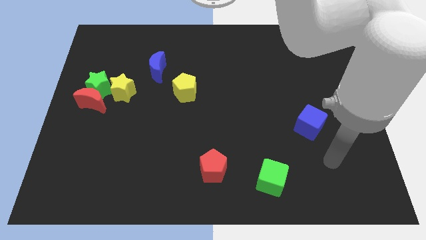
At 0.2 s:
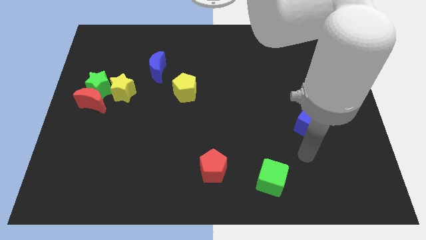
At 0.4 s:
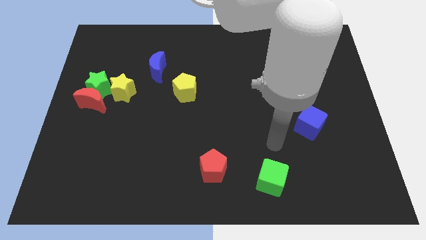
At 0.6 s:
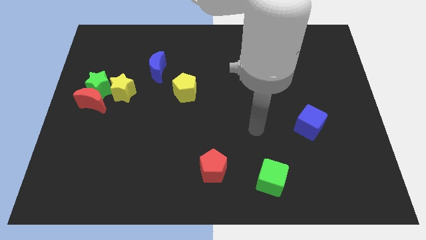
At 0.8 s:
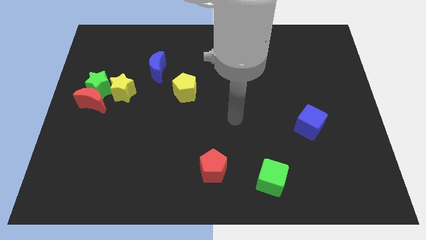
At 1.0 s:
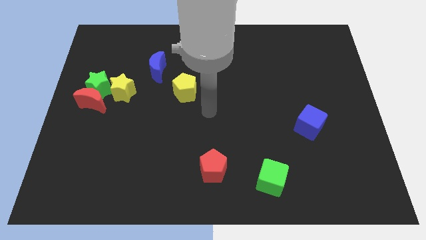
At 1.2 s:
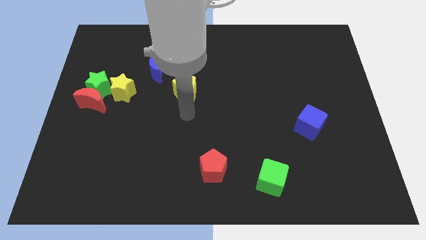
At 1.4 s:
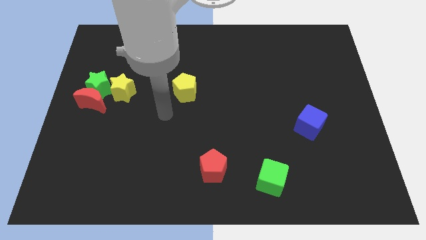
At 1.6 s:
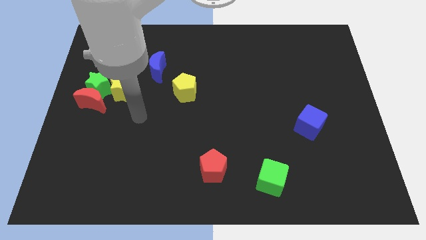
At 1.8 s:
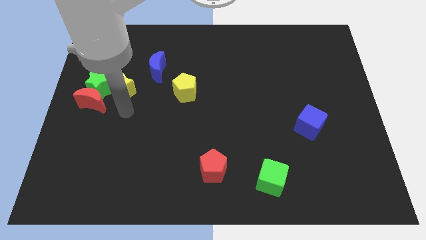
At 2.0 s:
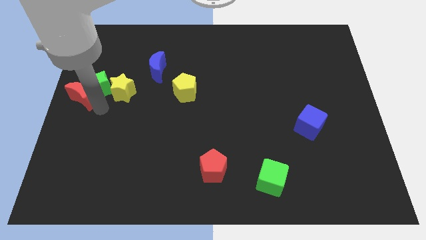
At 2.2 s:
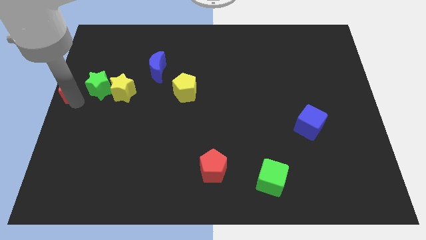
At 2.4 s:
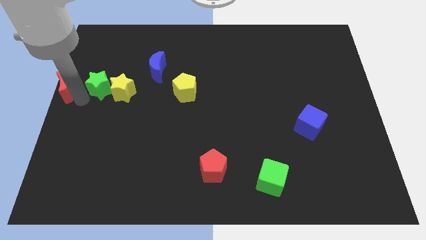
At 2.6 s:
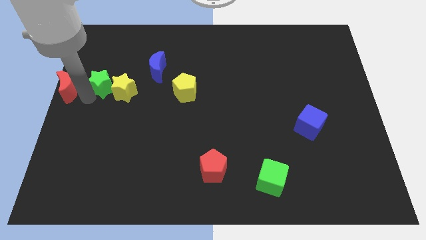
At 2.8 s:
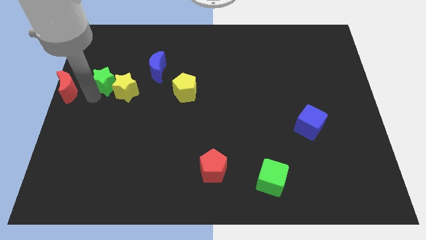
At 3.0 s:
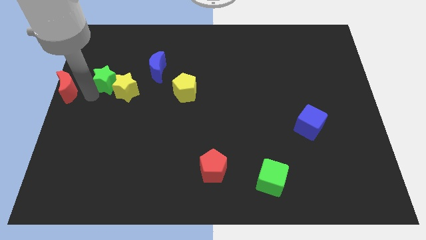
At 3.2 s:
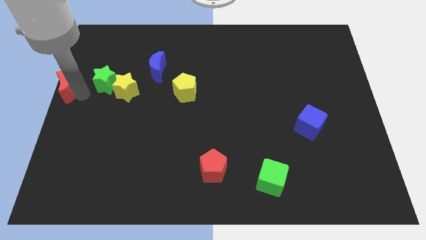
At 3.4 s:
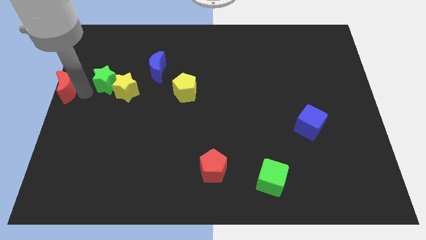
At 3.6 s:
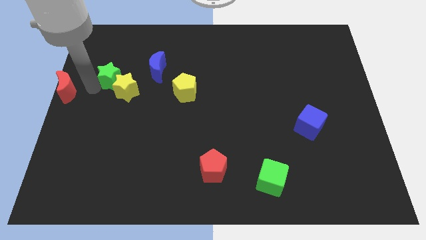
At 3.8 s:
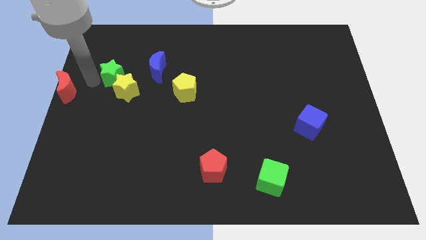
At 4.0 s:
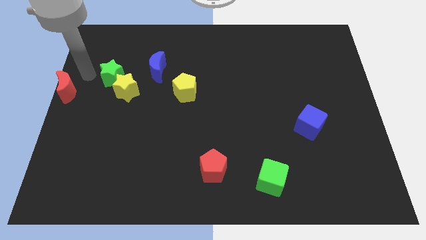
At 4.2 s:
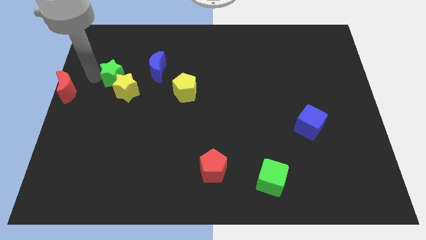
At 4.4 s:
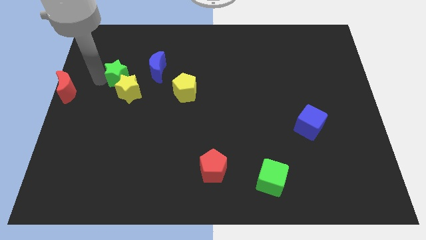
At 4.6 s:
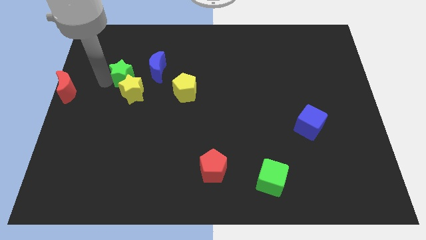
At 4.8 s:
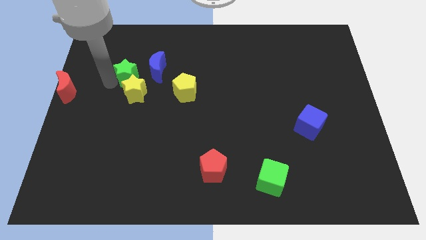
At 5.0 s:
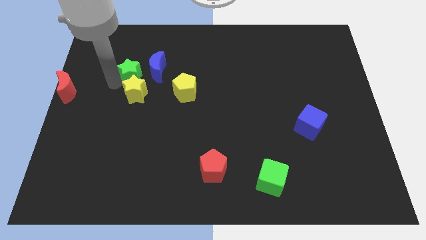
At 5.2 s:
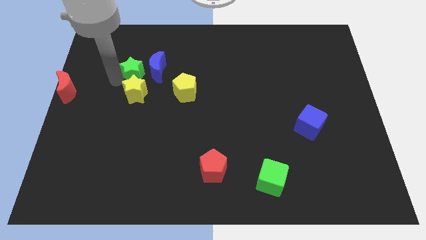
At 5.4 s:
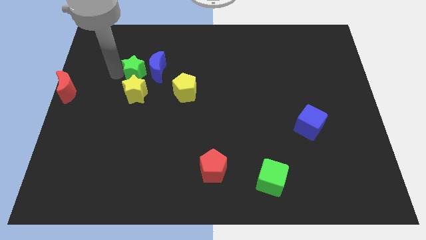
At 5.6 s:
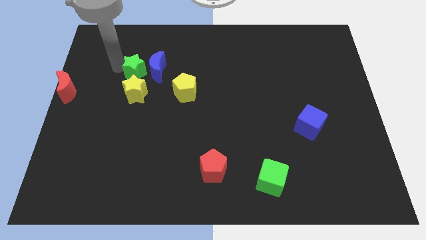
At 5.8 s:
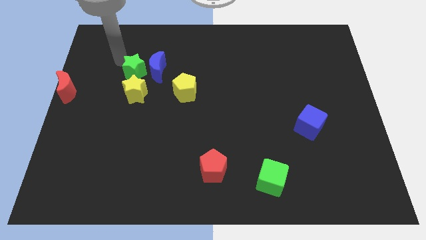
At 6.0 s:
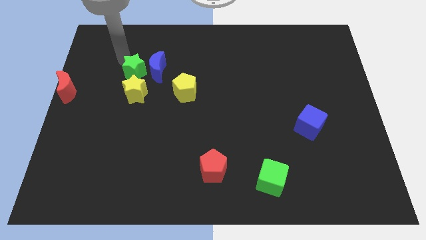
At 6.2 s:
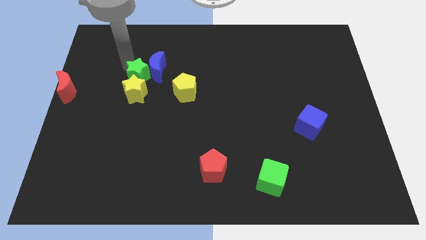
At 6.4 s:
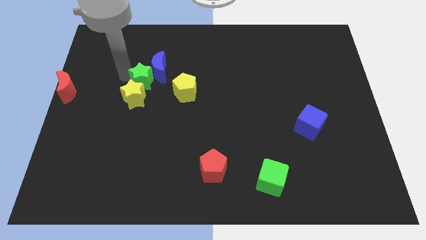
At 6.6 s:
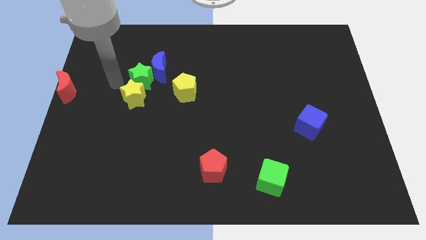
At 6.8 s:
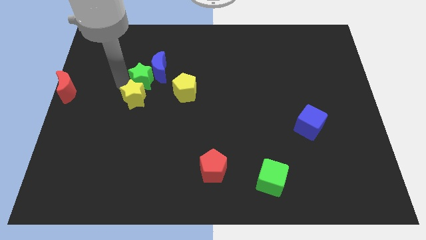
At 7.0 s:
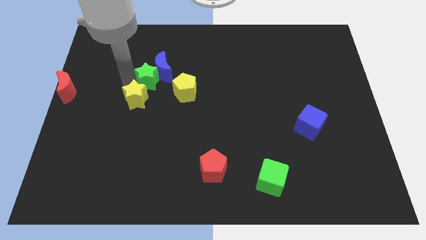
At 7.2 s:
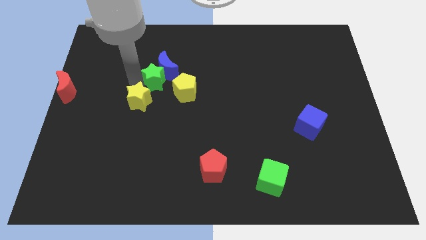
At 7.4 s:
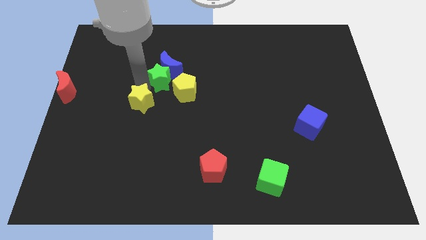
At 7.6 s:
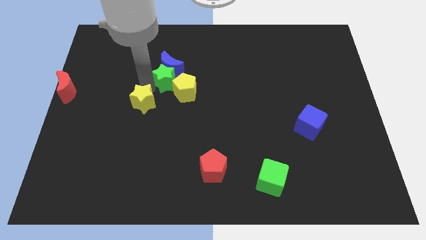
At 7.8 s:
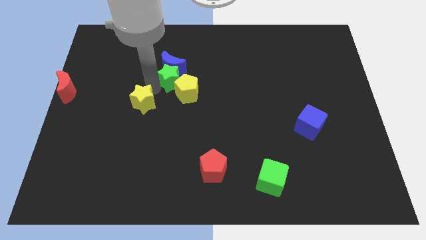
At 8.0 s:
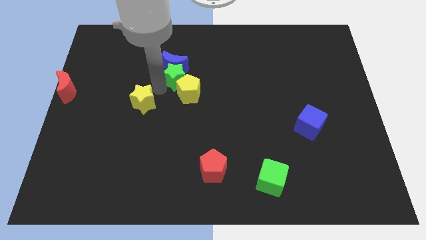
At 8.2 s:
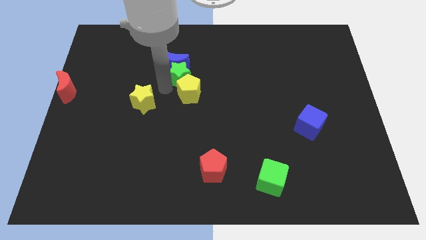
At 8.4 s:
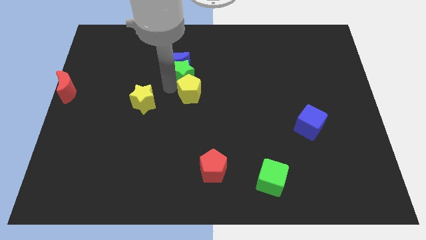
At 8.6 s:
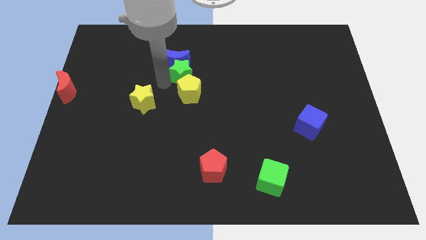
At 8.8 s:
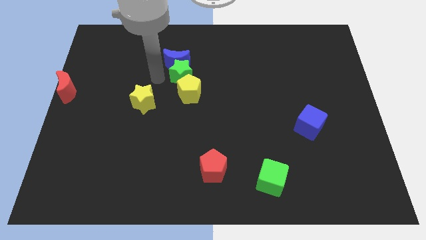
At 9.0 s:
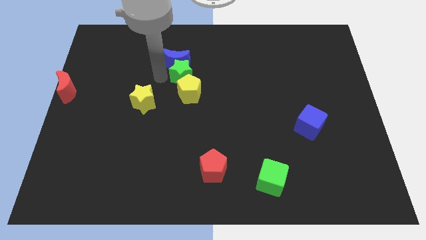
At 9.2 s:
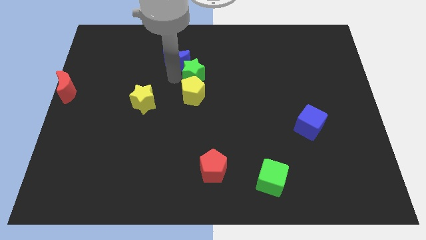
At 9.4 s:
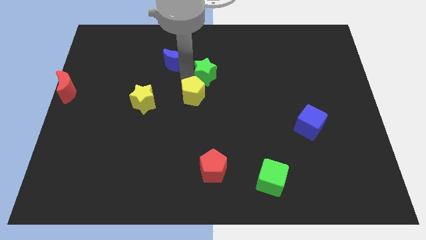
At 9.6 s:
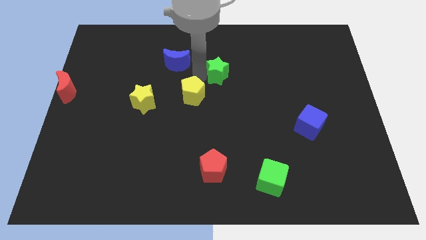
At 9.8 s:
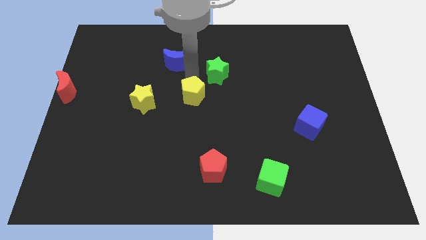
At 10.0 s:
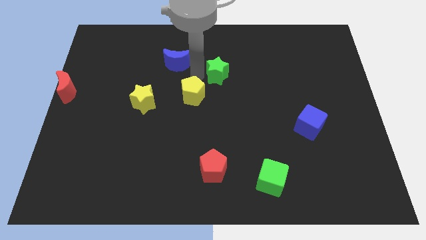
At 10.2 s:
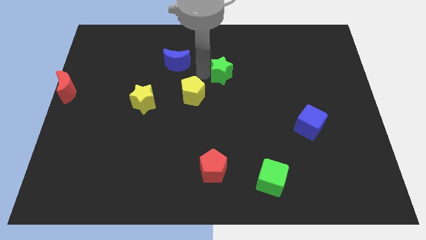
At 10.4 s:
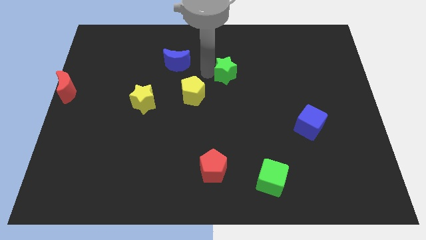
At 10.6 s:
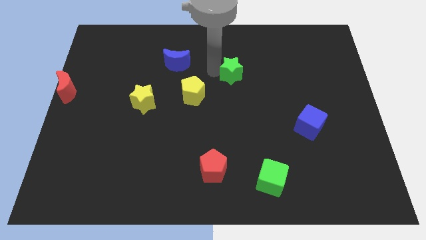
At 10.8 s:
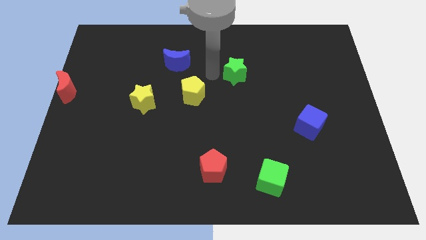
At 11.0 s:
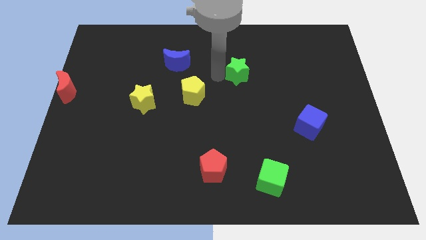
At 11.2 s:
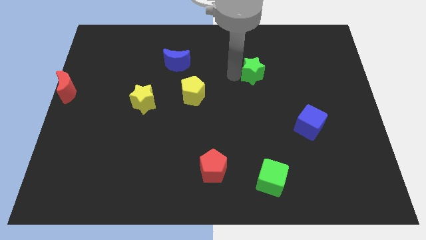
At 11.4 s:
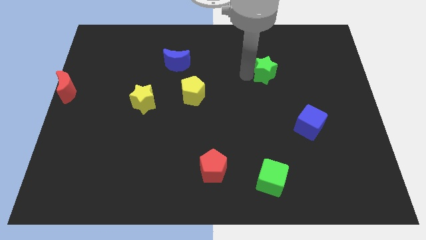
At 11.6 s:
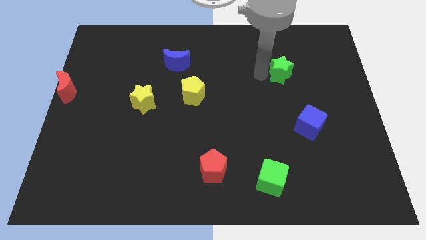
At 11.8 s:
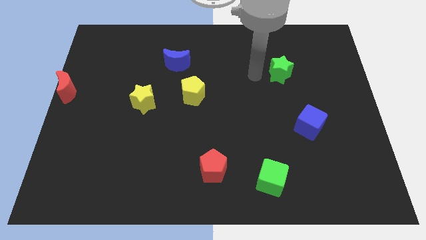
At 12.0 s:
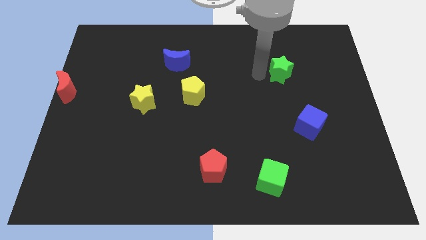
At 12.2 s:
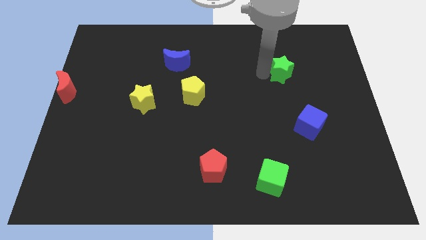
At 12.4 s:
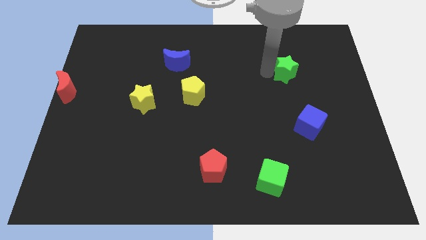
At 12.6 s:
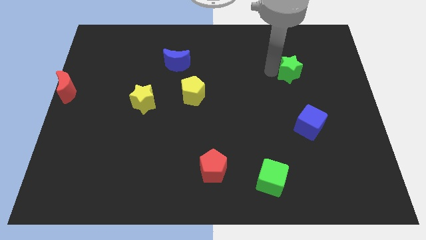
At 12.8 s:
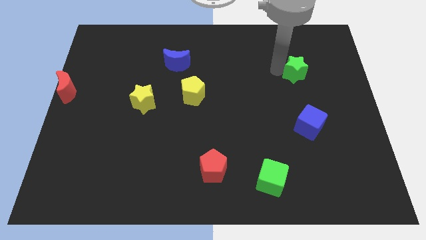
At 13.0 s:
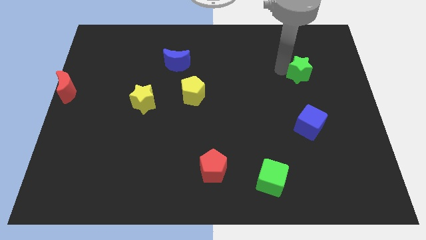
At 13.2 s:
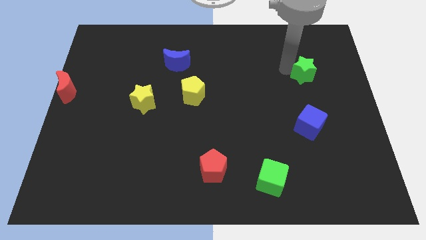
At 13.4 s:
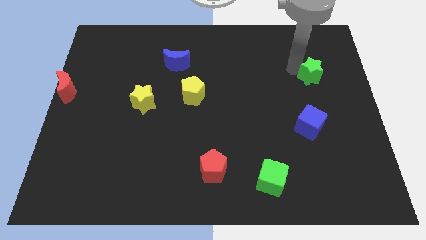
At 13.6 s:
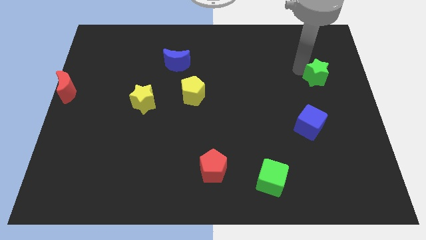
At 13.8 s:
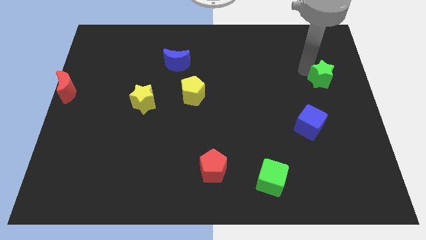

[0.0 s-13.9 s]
slide the green star to the right side of the board
